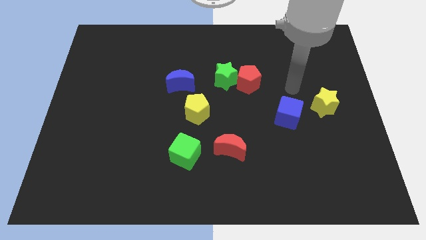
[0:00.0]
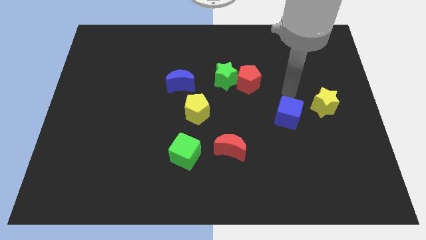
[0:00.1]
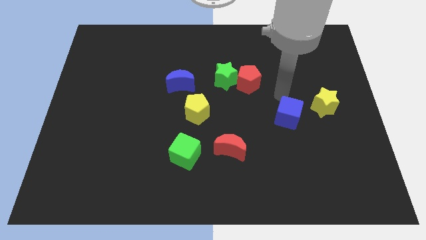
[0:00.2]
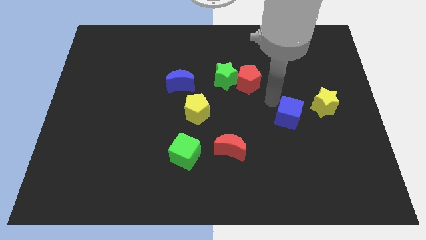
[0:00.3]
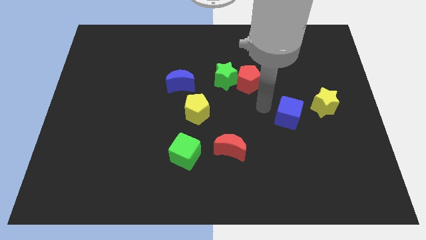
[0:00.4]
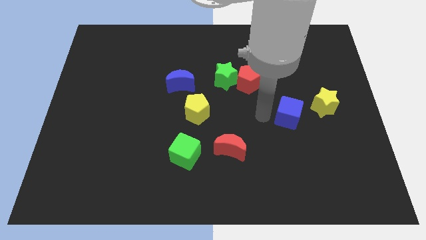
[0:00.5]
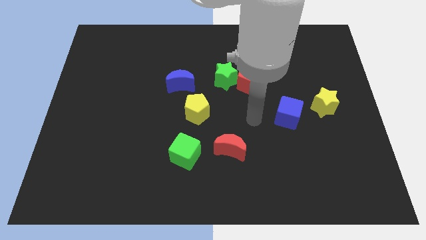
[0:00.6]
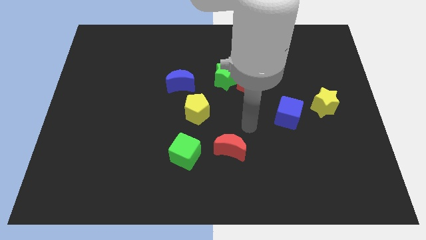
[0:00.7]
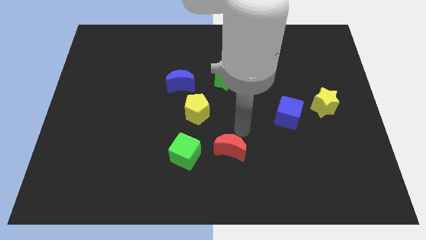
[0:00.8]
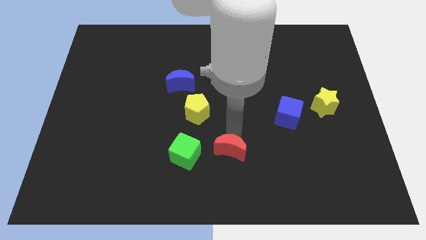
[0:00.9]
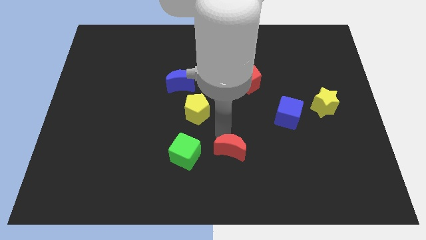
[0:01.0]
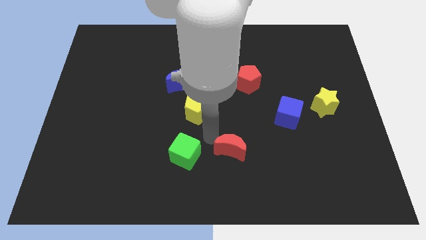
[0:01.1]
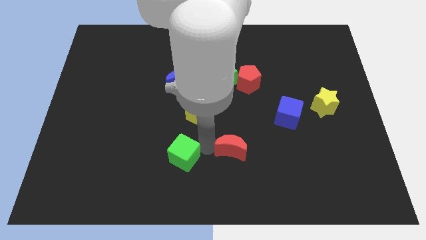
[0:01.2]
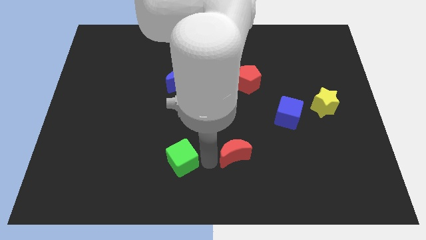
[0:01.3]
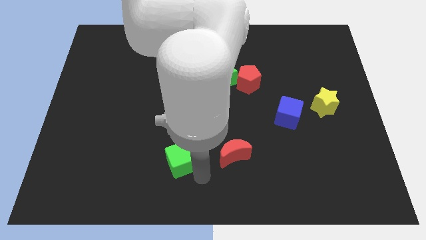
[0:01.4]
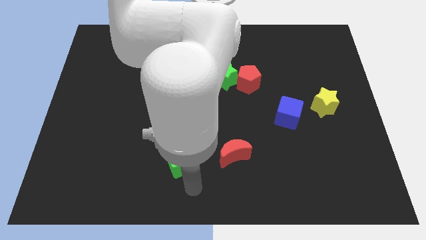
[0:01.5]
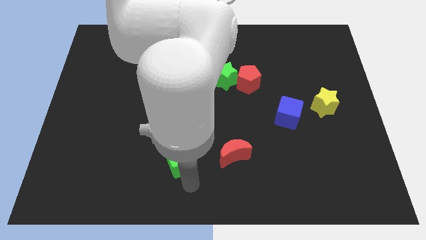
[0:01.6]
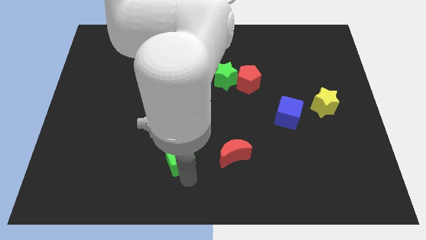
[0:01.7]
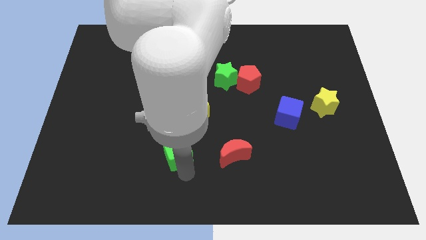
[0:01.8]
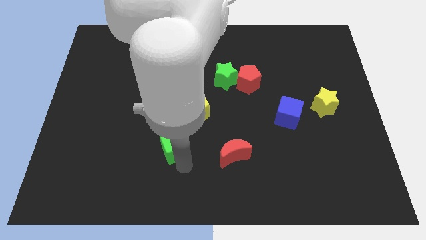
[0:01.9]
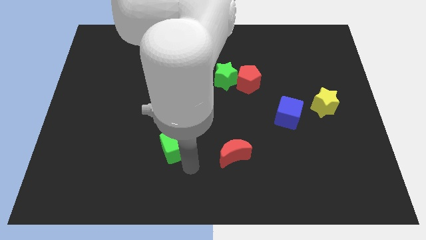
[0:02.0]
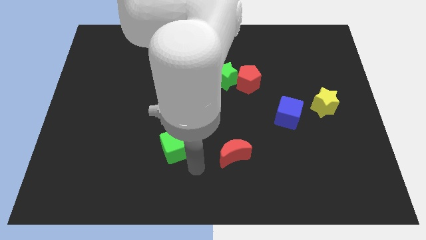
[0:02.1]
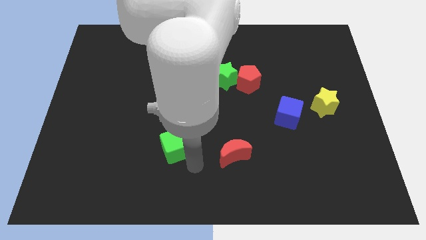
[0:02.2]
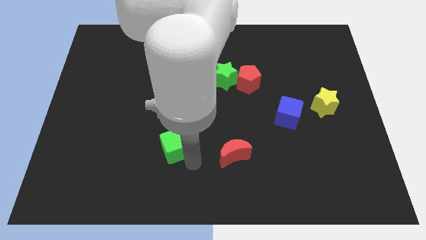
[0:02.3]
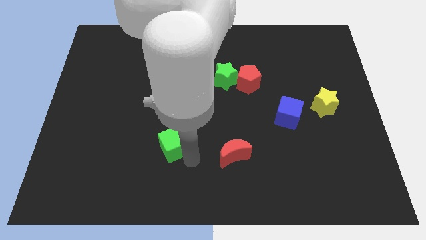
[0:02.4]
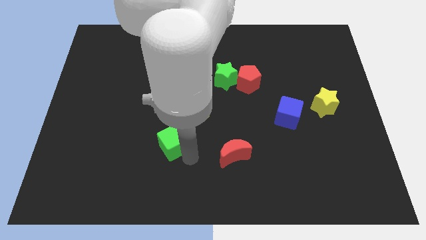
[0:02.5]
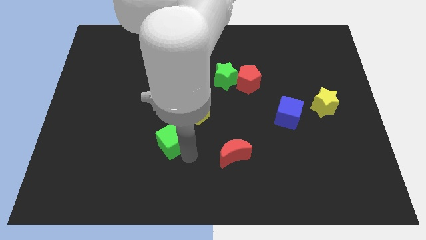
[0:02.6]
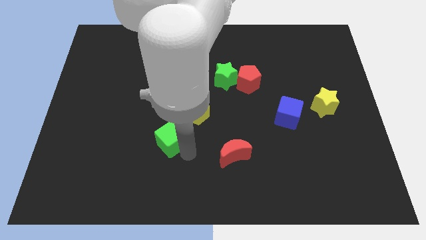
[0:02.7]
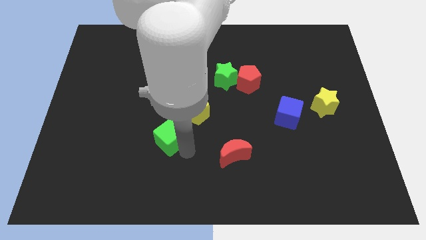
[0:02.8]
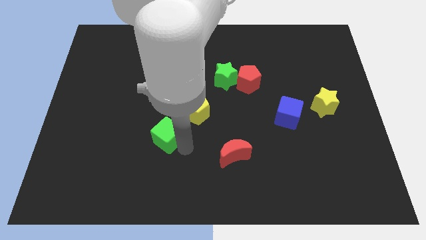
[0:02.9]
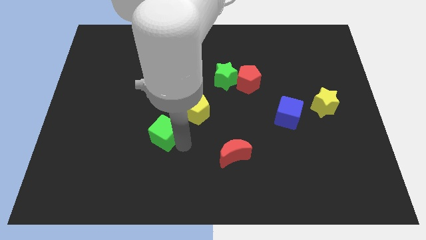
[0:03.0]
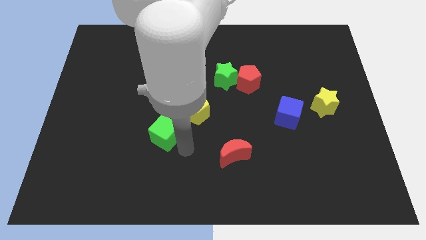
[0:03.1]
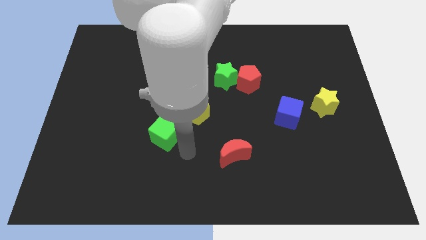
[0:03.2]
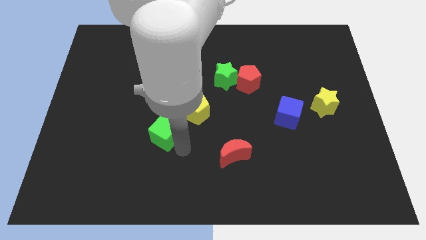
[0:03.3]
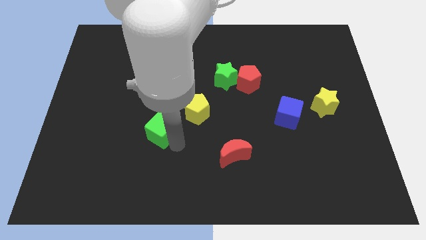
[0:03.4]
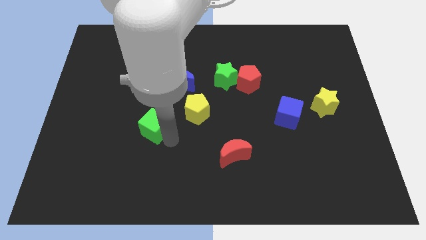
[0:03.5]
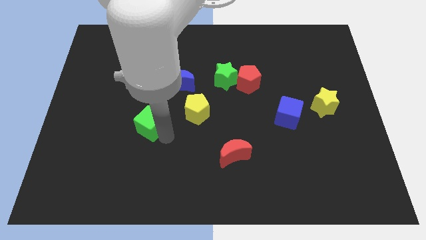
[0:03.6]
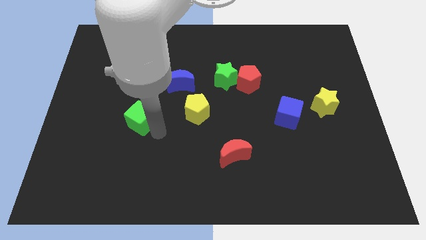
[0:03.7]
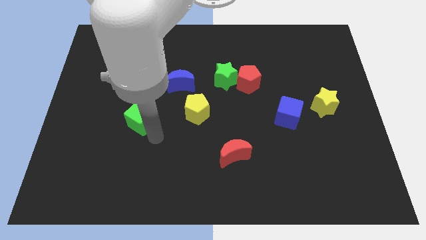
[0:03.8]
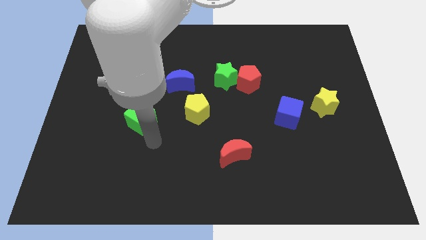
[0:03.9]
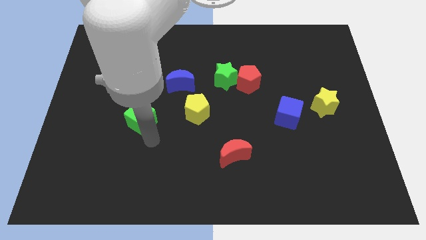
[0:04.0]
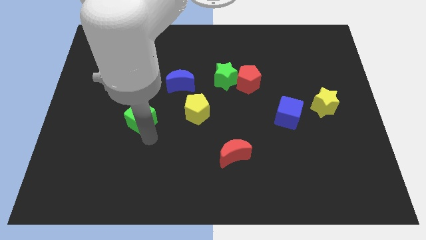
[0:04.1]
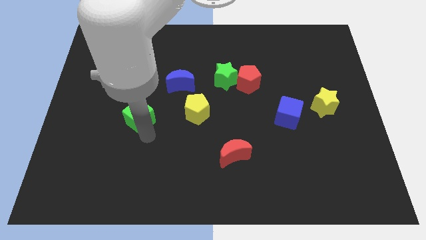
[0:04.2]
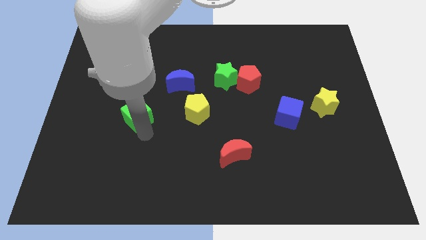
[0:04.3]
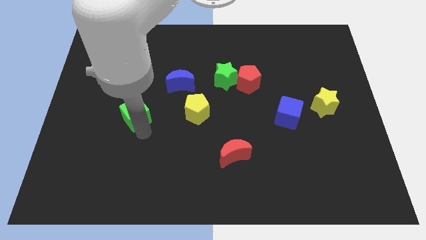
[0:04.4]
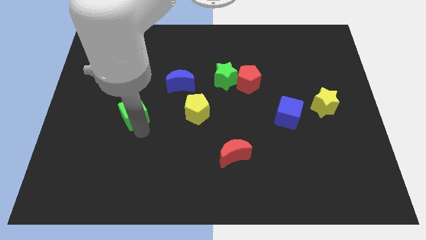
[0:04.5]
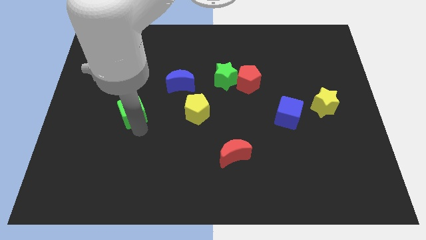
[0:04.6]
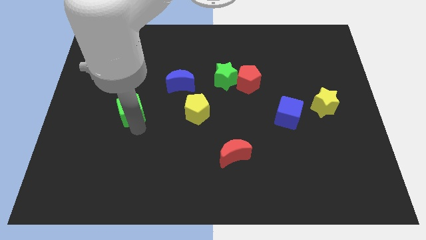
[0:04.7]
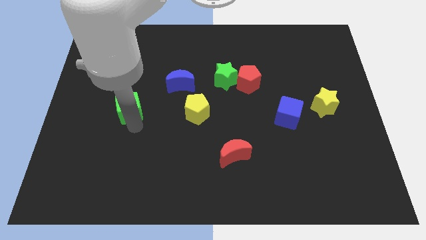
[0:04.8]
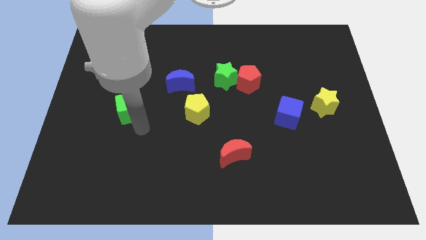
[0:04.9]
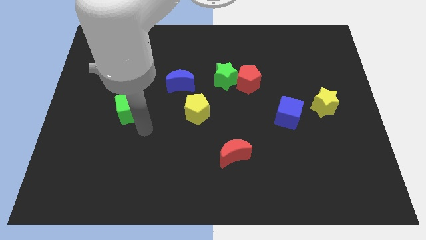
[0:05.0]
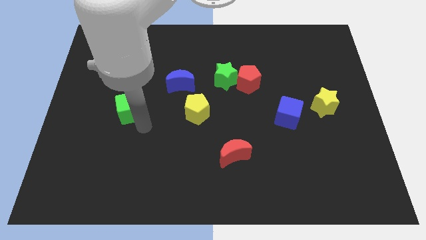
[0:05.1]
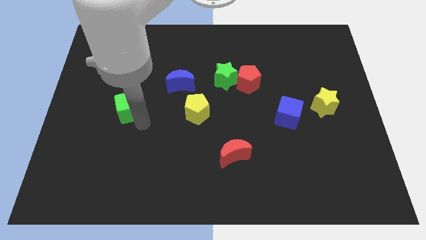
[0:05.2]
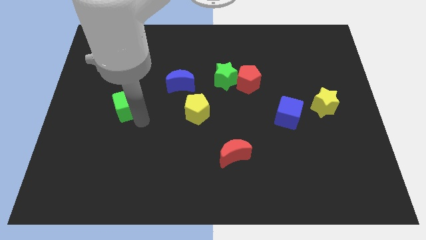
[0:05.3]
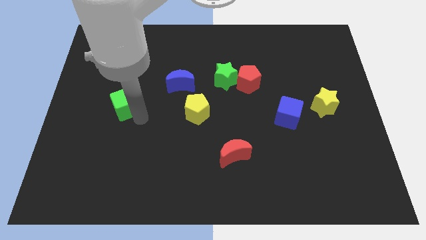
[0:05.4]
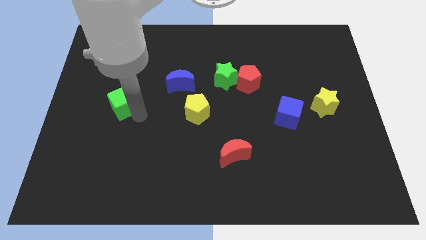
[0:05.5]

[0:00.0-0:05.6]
push the green cube diagonally upwards and to the left

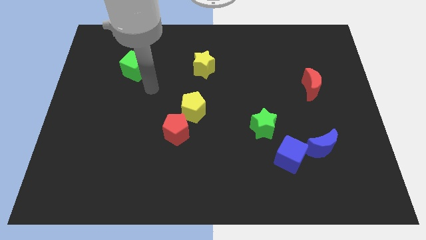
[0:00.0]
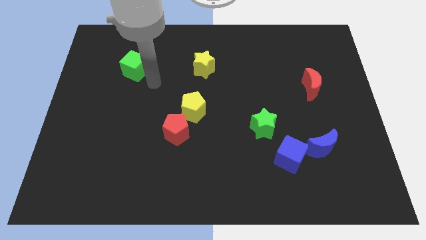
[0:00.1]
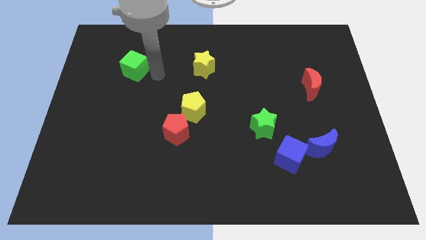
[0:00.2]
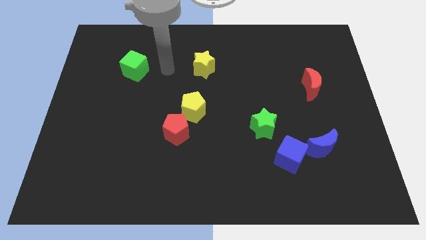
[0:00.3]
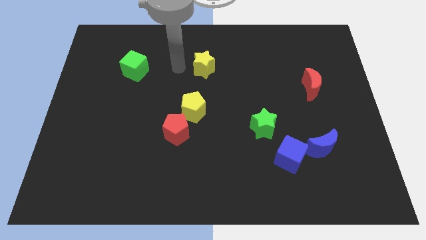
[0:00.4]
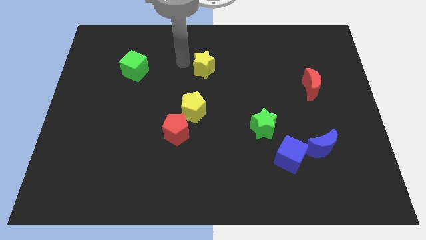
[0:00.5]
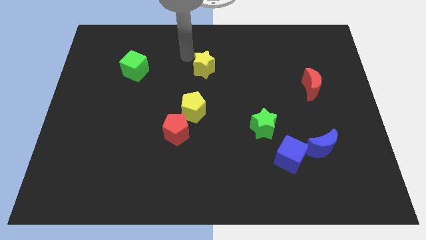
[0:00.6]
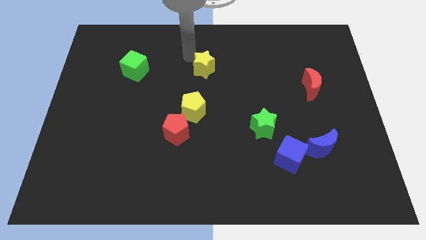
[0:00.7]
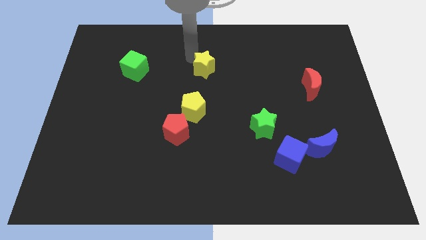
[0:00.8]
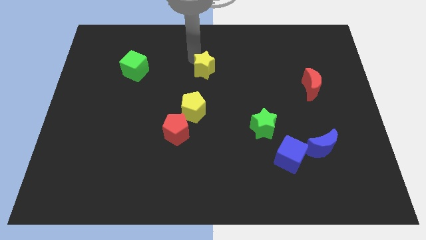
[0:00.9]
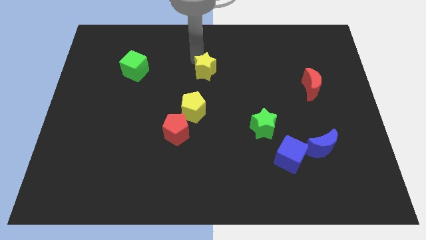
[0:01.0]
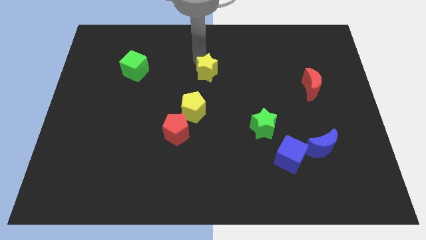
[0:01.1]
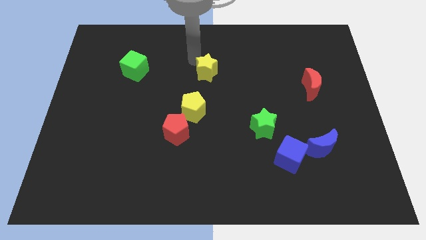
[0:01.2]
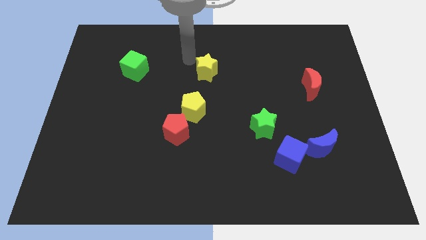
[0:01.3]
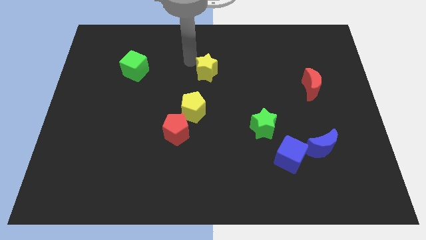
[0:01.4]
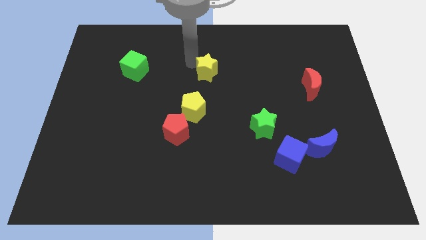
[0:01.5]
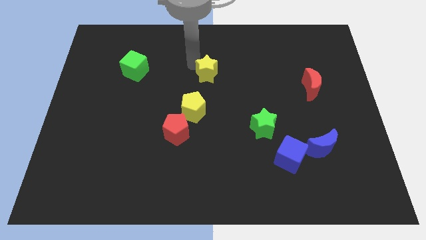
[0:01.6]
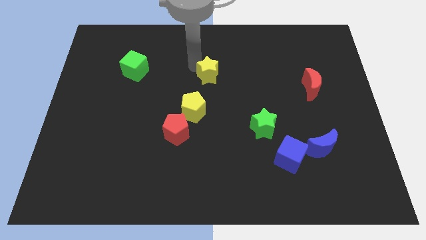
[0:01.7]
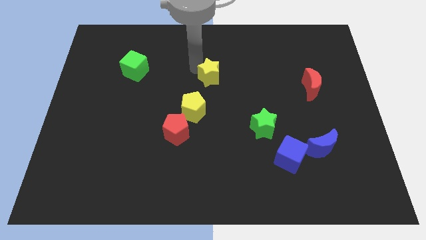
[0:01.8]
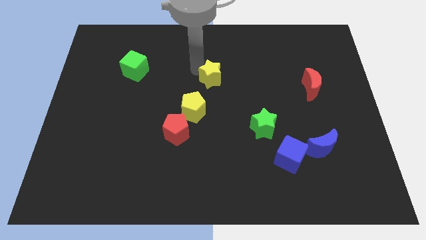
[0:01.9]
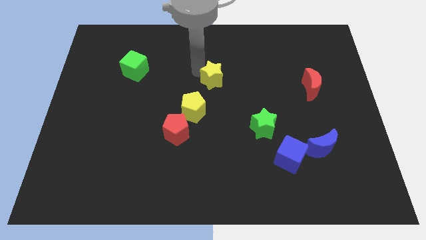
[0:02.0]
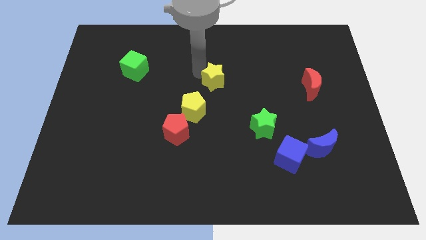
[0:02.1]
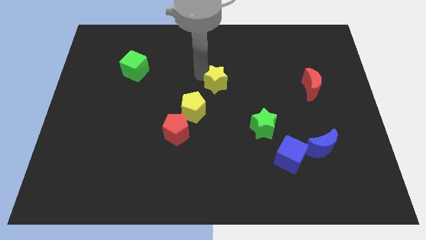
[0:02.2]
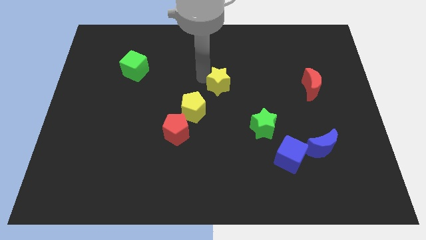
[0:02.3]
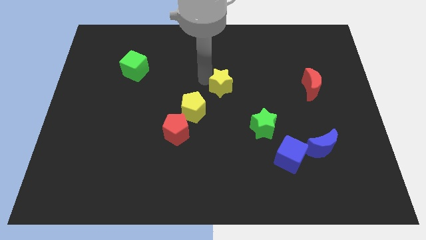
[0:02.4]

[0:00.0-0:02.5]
push the yellow star downwards and right a little bit

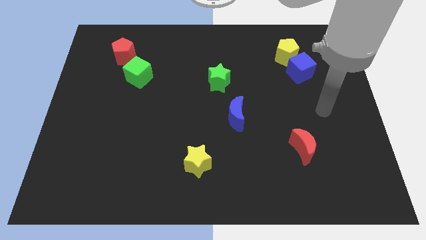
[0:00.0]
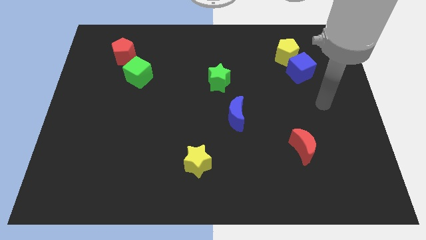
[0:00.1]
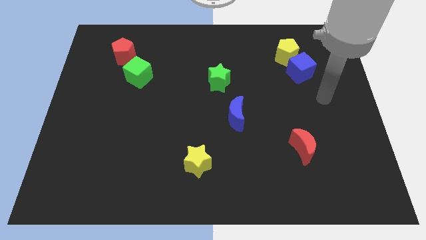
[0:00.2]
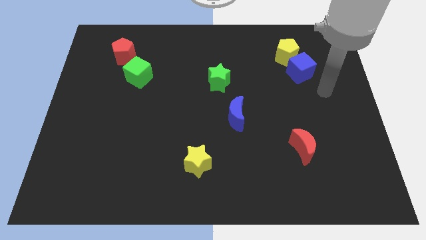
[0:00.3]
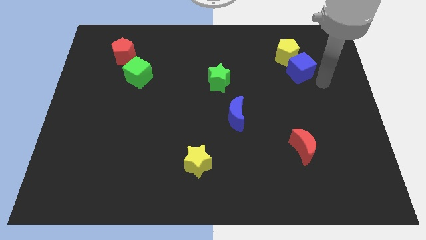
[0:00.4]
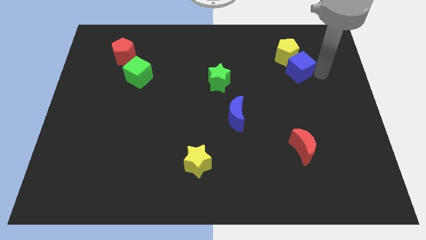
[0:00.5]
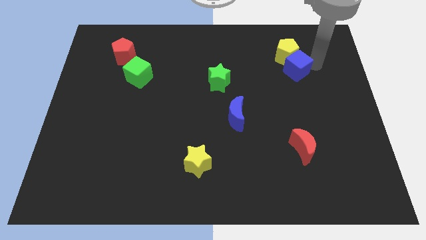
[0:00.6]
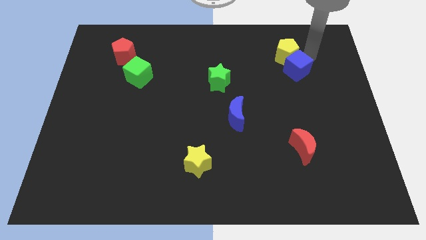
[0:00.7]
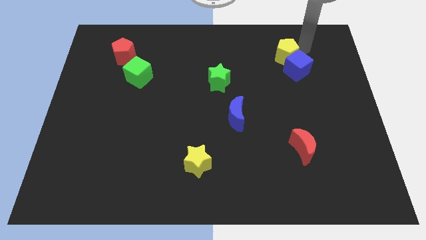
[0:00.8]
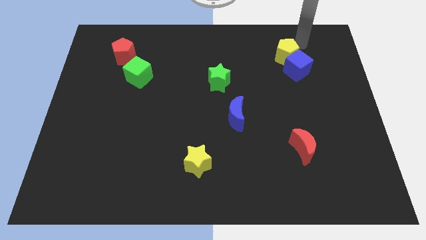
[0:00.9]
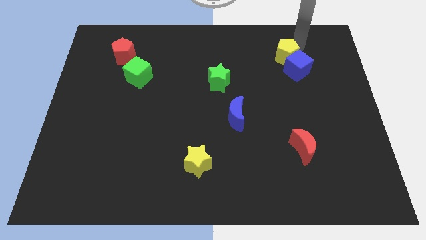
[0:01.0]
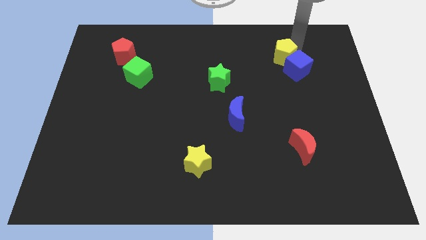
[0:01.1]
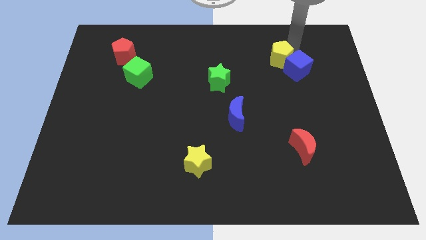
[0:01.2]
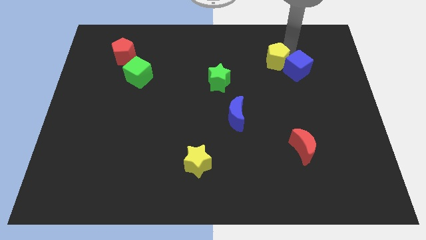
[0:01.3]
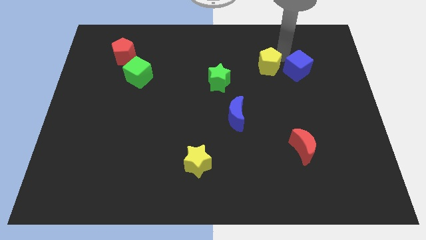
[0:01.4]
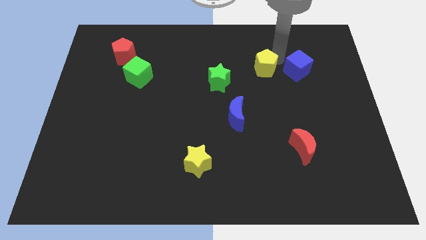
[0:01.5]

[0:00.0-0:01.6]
slide the yellow pentagon diagonally downwards and left a little
